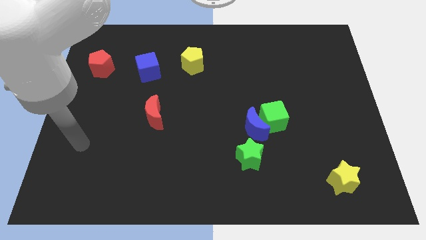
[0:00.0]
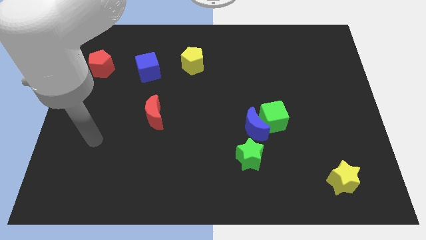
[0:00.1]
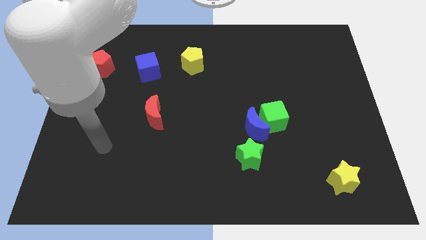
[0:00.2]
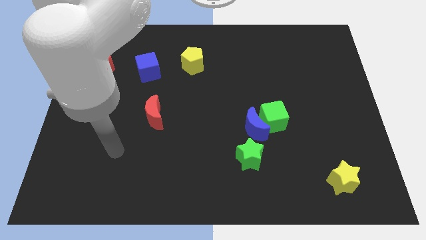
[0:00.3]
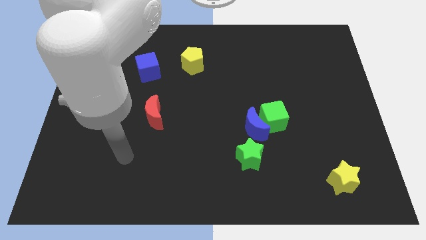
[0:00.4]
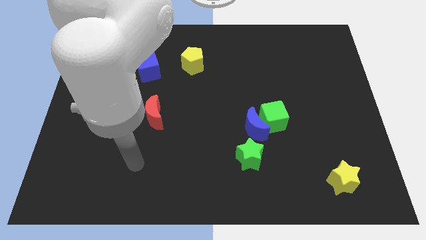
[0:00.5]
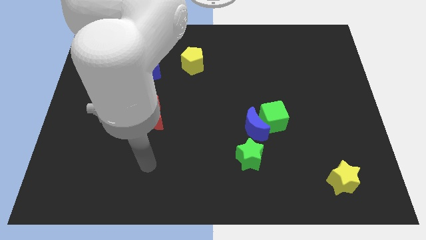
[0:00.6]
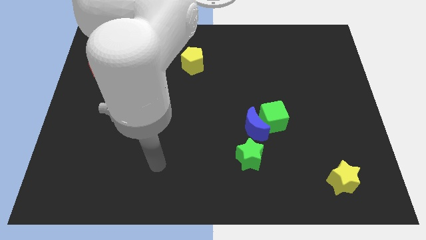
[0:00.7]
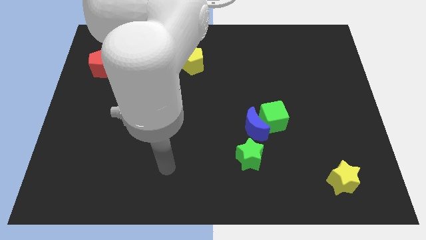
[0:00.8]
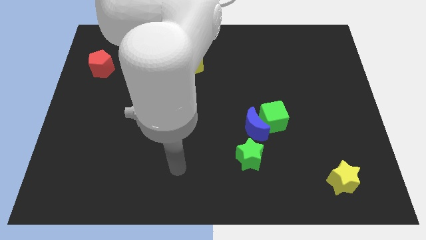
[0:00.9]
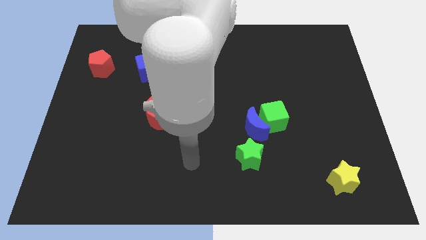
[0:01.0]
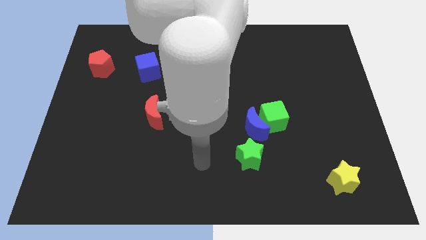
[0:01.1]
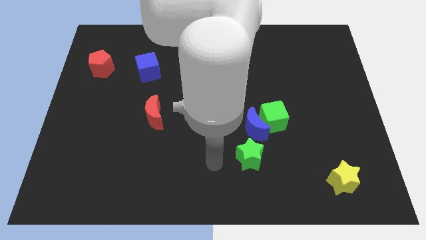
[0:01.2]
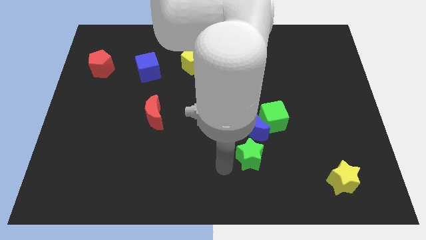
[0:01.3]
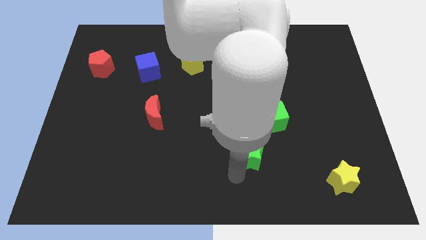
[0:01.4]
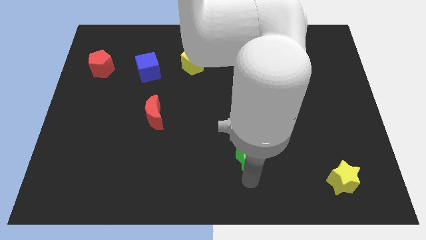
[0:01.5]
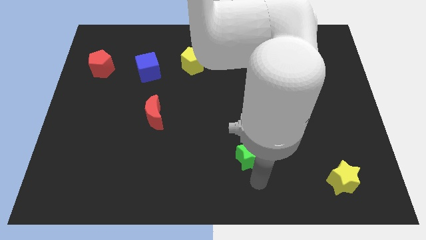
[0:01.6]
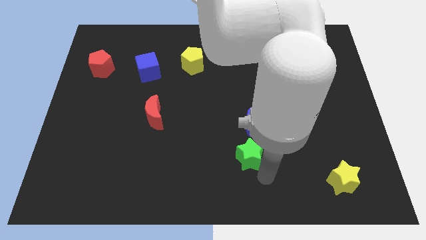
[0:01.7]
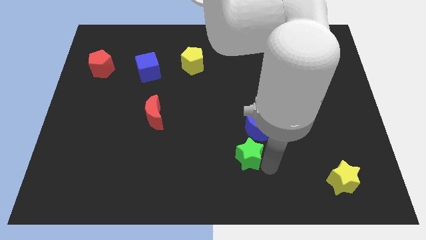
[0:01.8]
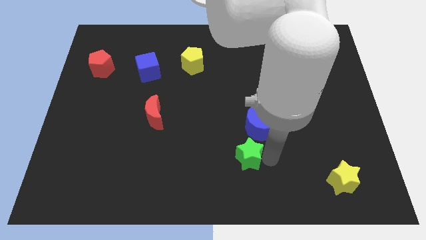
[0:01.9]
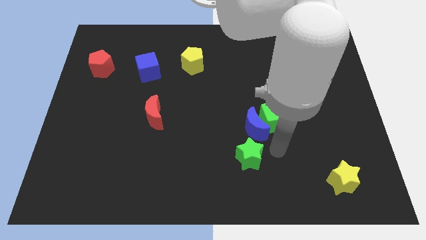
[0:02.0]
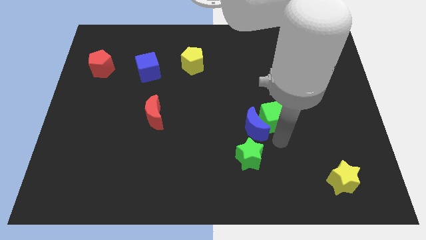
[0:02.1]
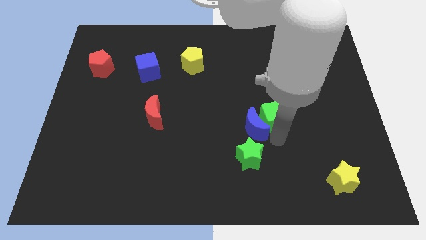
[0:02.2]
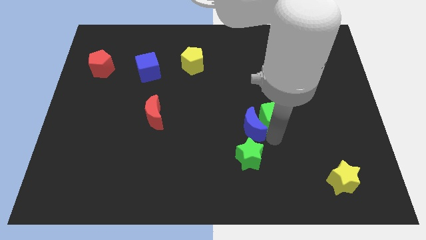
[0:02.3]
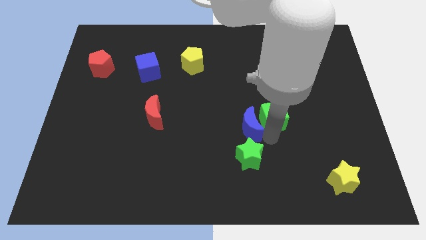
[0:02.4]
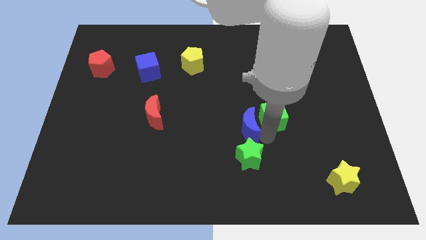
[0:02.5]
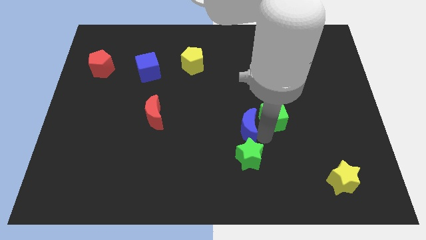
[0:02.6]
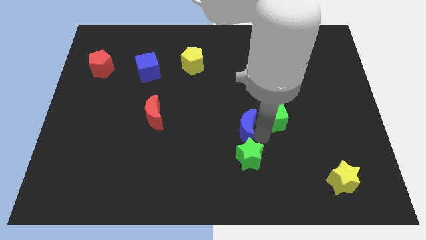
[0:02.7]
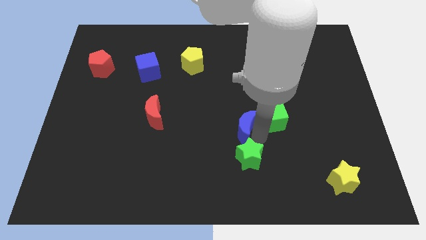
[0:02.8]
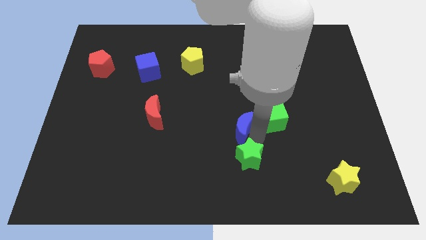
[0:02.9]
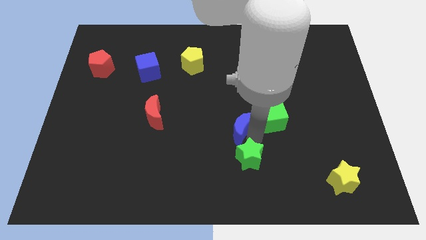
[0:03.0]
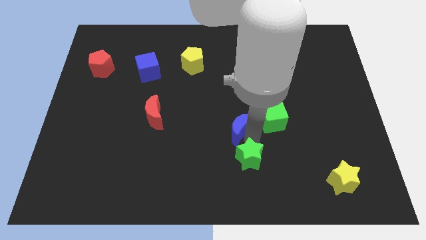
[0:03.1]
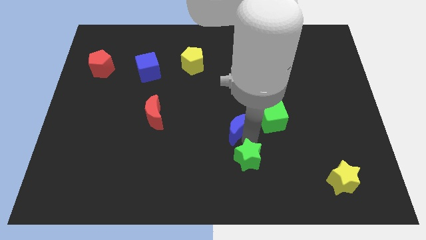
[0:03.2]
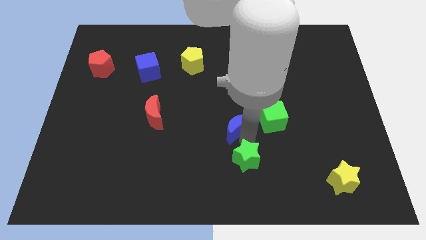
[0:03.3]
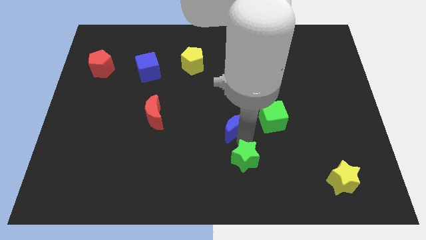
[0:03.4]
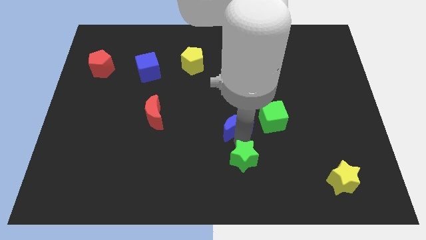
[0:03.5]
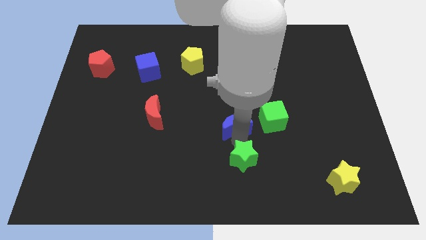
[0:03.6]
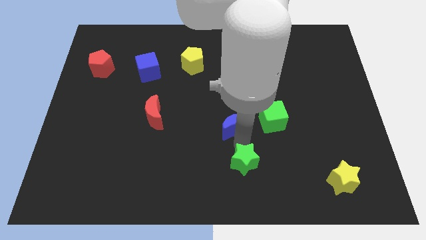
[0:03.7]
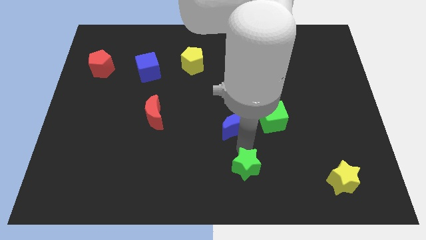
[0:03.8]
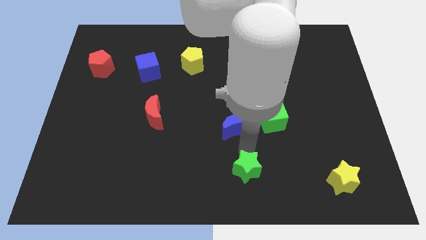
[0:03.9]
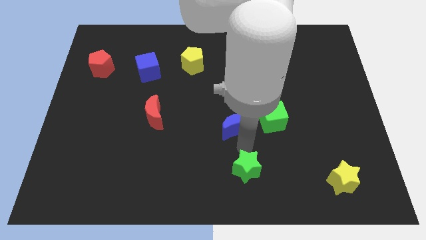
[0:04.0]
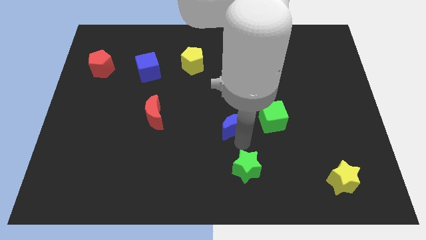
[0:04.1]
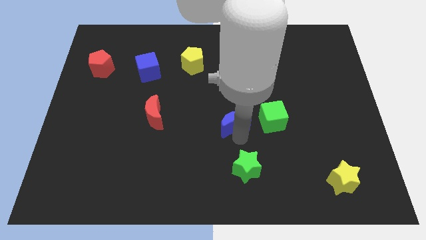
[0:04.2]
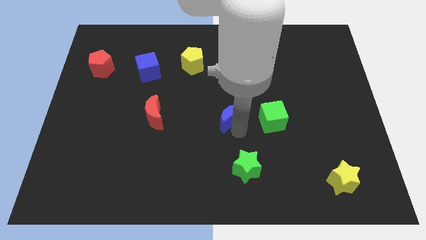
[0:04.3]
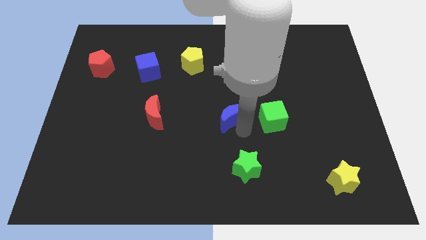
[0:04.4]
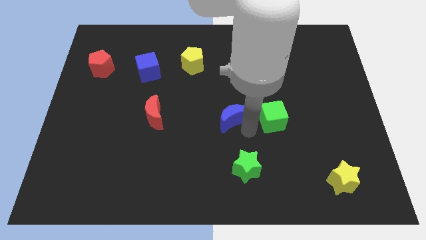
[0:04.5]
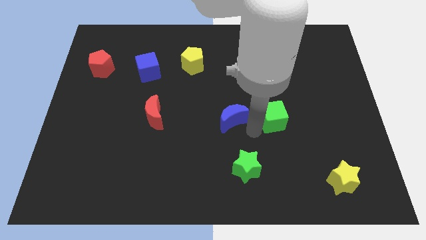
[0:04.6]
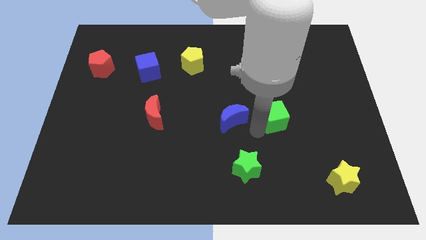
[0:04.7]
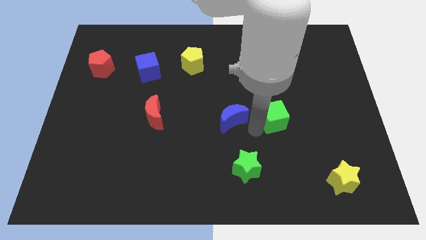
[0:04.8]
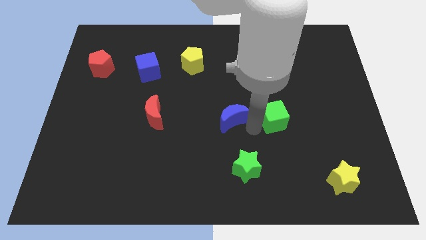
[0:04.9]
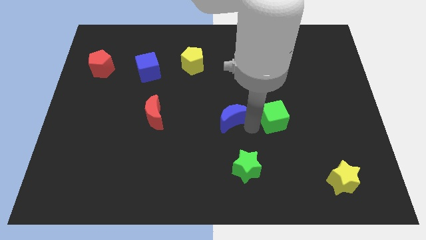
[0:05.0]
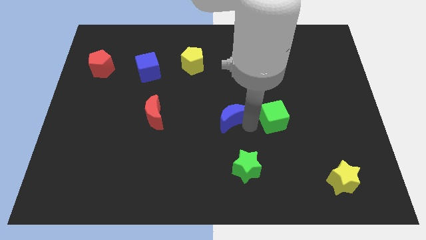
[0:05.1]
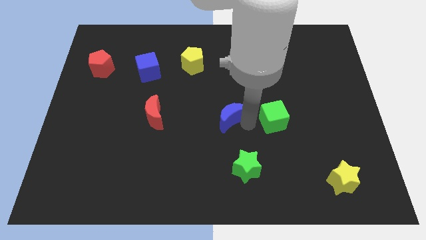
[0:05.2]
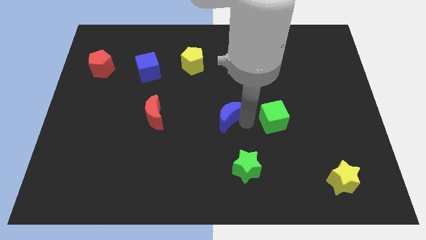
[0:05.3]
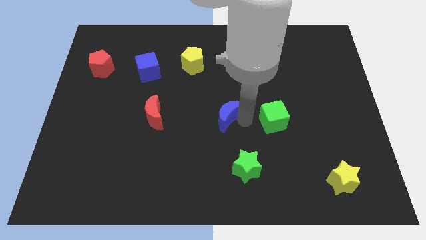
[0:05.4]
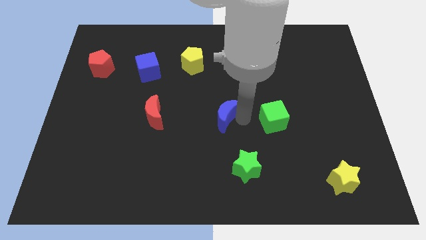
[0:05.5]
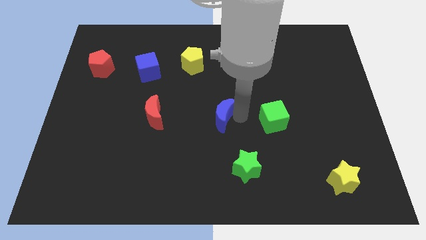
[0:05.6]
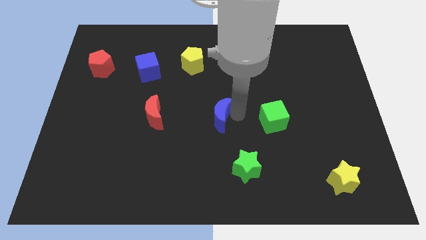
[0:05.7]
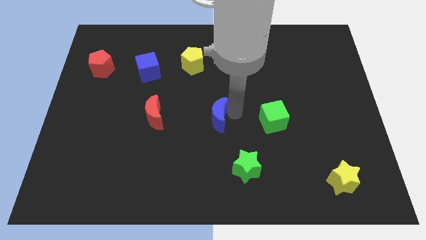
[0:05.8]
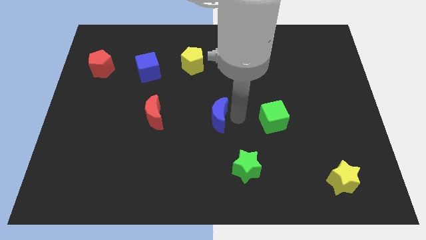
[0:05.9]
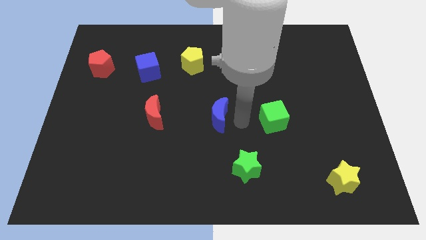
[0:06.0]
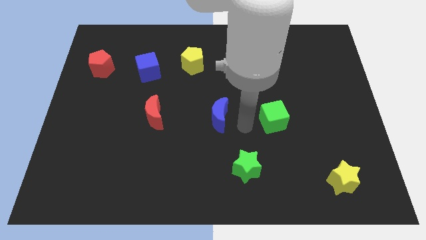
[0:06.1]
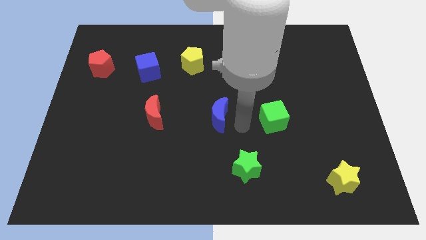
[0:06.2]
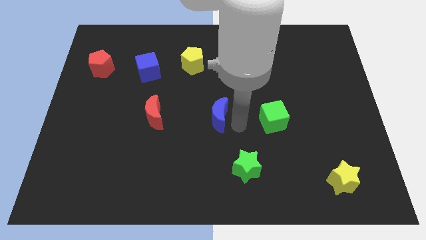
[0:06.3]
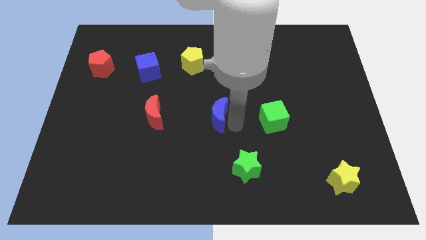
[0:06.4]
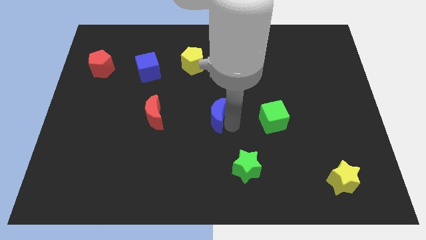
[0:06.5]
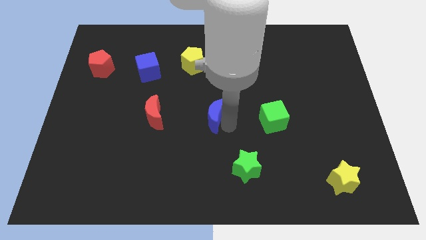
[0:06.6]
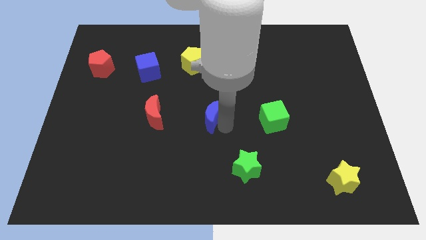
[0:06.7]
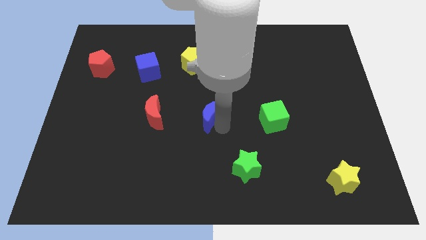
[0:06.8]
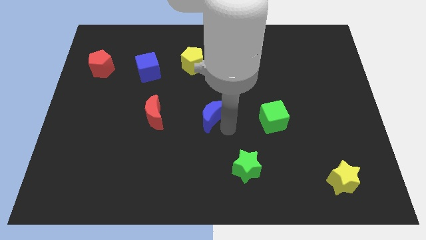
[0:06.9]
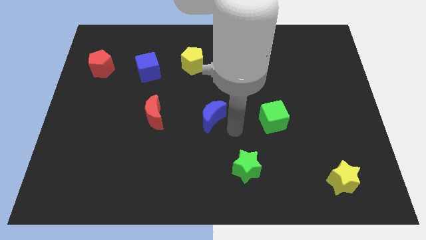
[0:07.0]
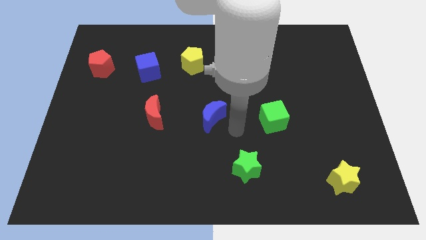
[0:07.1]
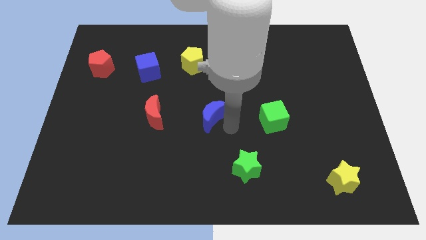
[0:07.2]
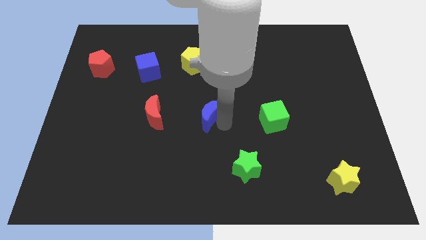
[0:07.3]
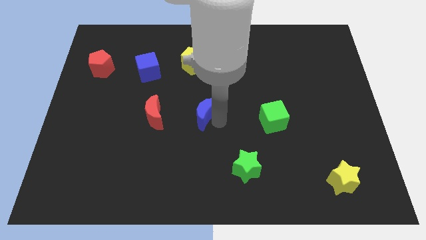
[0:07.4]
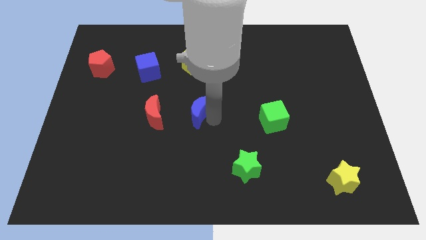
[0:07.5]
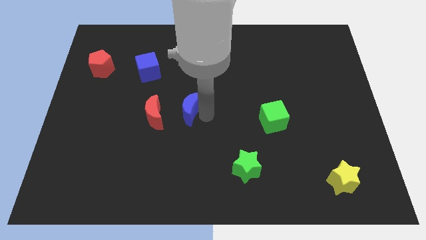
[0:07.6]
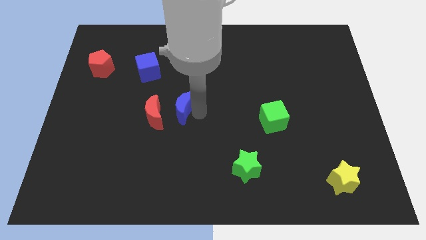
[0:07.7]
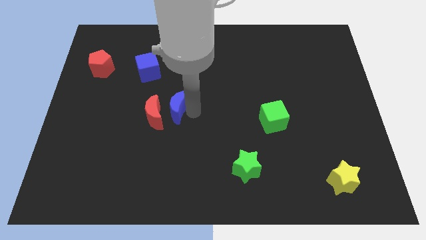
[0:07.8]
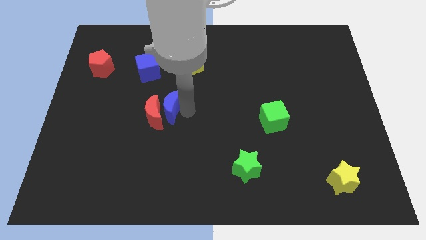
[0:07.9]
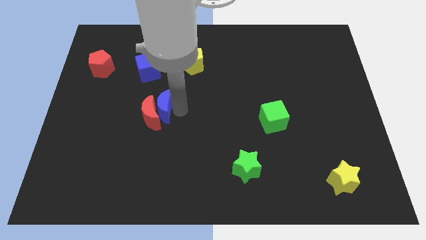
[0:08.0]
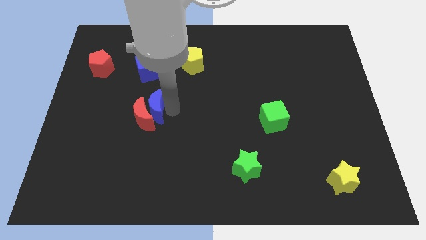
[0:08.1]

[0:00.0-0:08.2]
push the blue moon to the bottom of the blue cube
